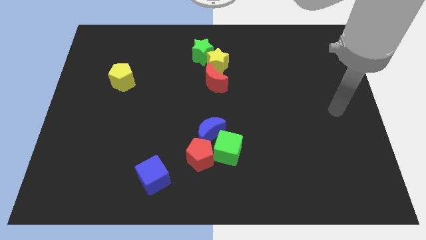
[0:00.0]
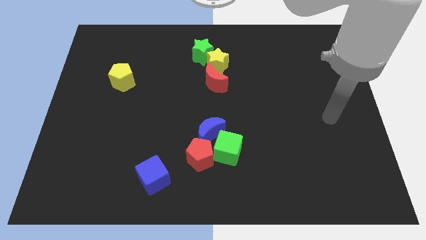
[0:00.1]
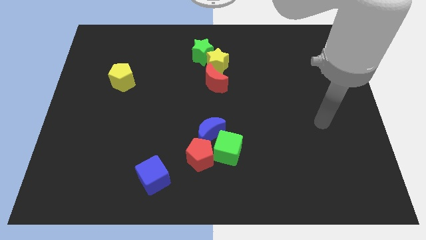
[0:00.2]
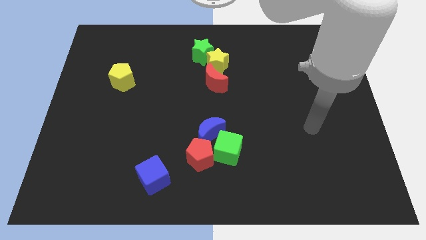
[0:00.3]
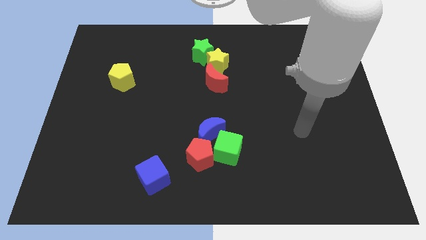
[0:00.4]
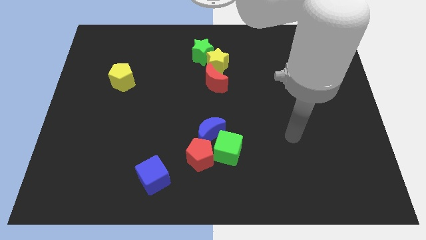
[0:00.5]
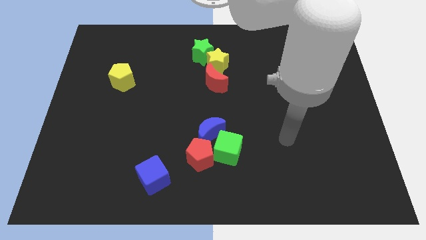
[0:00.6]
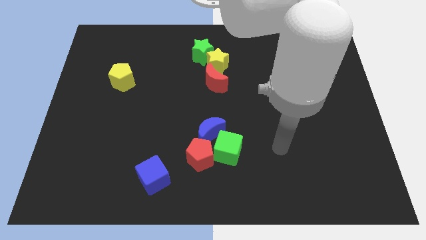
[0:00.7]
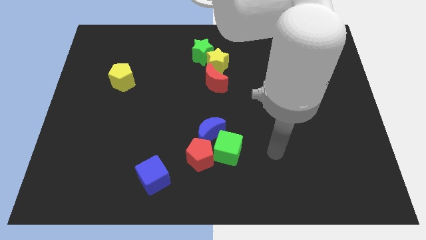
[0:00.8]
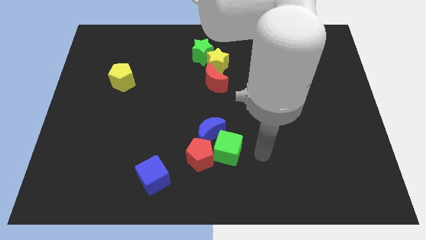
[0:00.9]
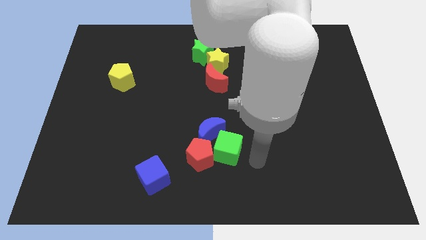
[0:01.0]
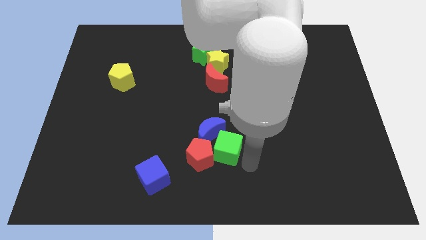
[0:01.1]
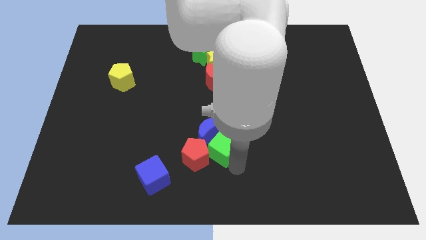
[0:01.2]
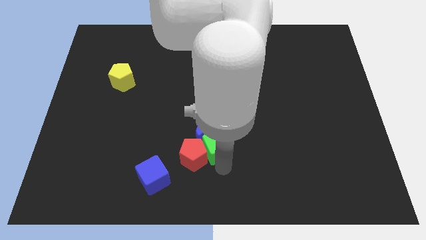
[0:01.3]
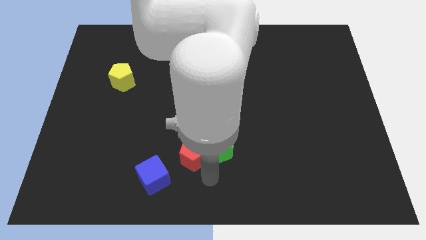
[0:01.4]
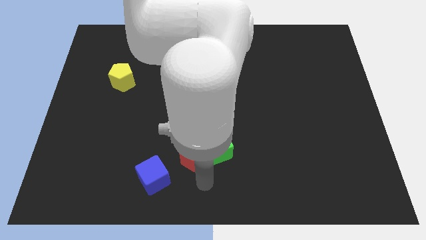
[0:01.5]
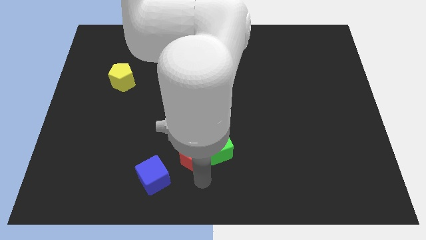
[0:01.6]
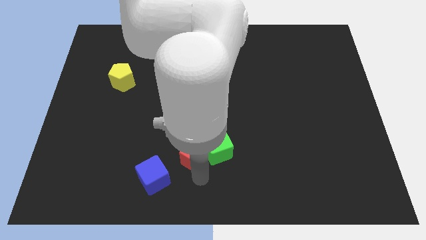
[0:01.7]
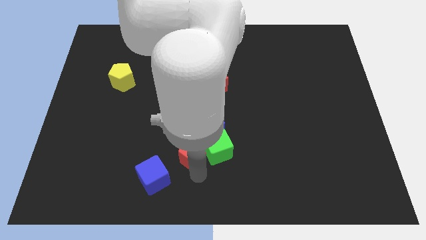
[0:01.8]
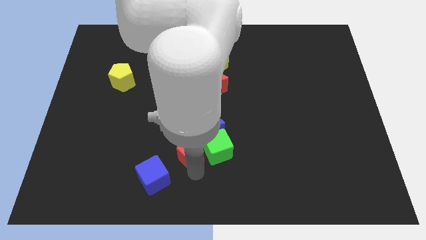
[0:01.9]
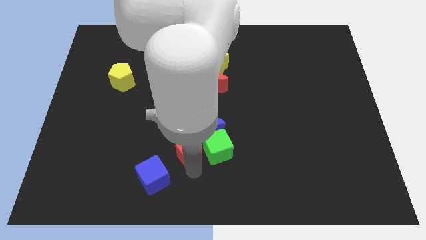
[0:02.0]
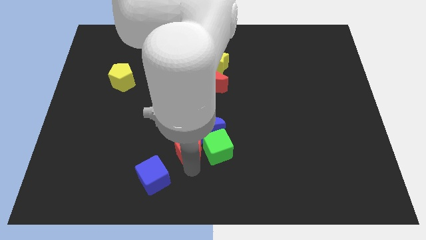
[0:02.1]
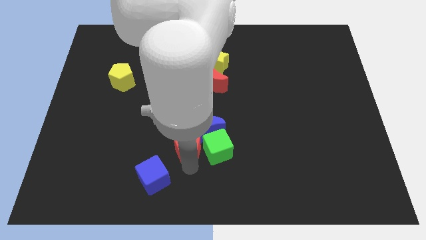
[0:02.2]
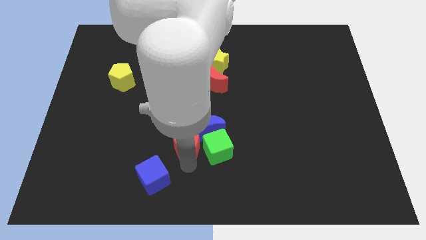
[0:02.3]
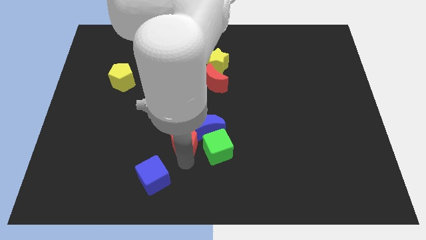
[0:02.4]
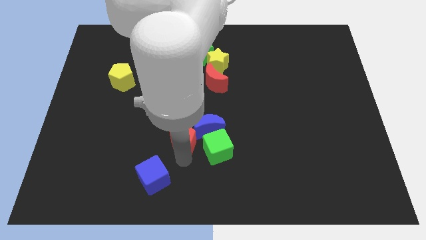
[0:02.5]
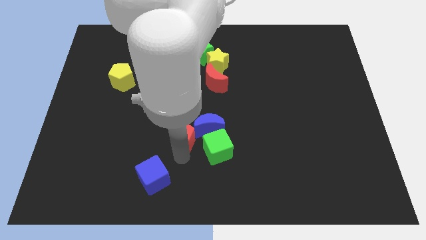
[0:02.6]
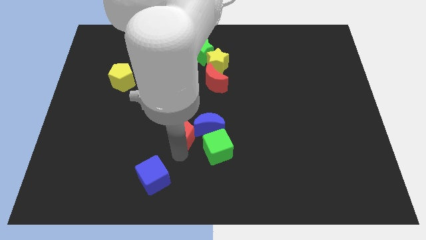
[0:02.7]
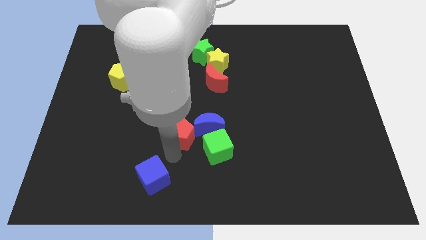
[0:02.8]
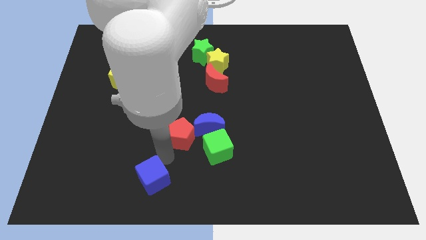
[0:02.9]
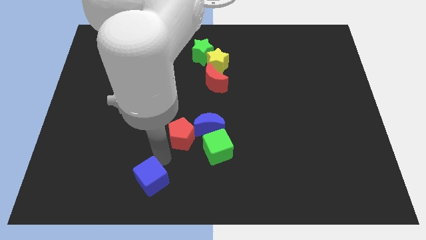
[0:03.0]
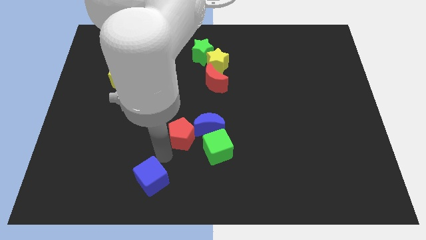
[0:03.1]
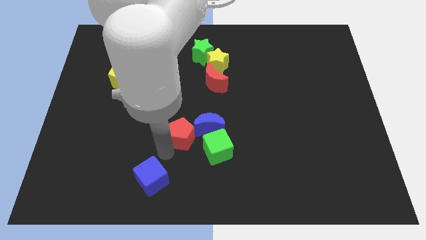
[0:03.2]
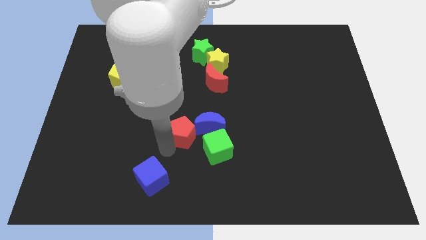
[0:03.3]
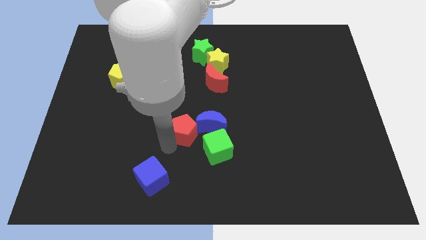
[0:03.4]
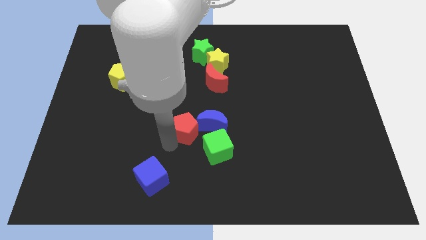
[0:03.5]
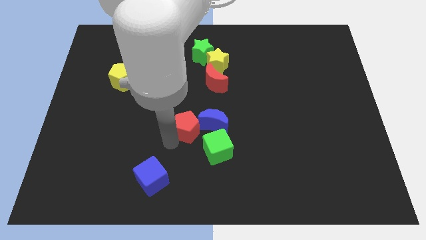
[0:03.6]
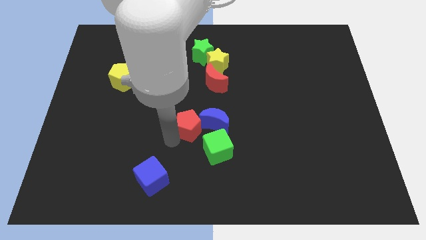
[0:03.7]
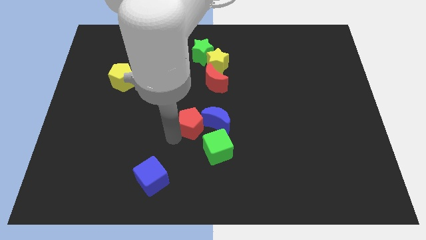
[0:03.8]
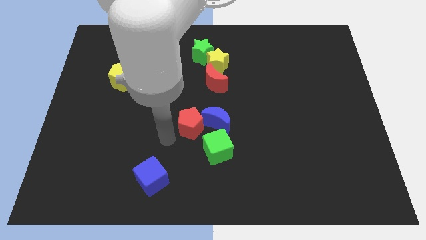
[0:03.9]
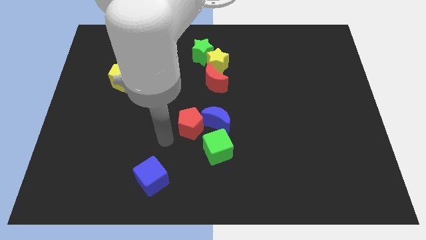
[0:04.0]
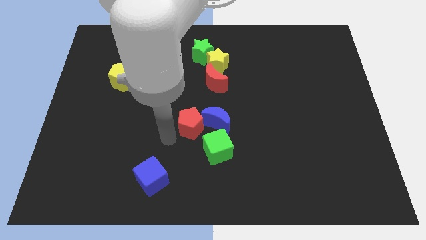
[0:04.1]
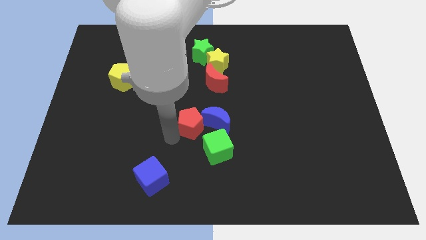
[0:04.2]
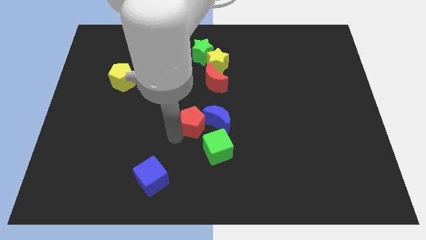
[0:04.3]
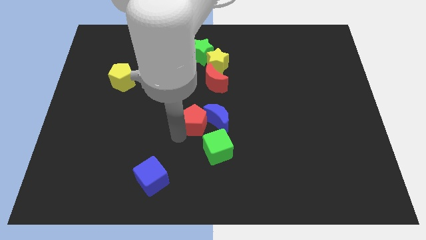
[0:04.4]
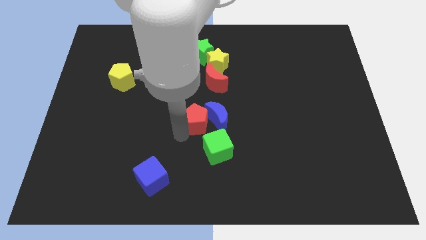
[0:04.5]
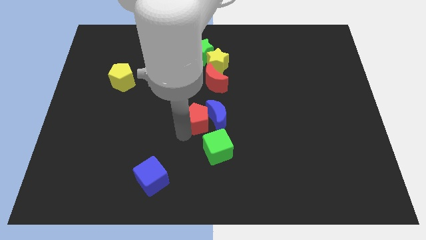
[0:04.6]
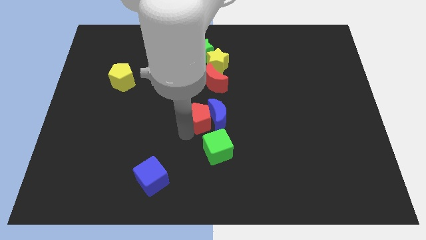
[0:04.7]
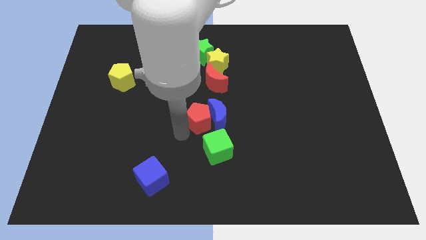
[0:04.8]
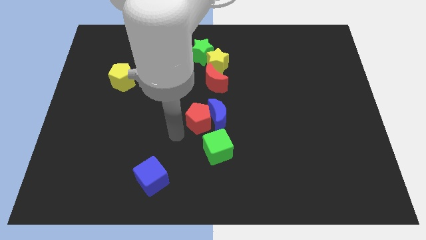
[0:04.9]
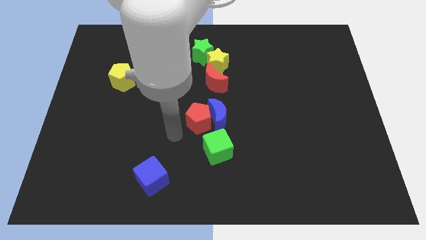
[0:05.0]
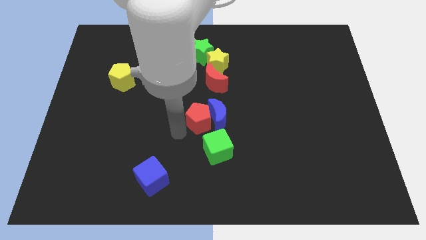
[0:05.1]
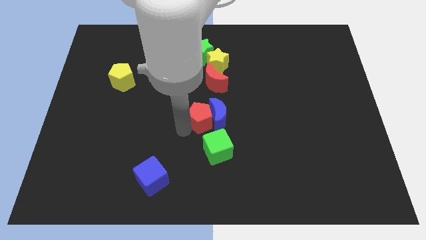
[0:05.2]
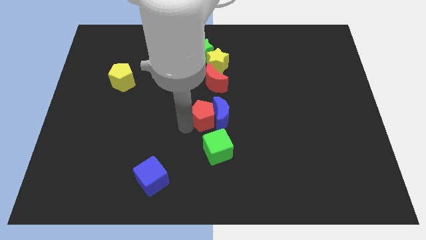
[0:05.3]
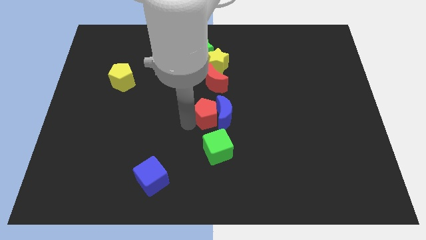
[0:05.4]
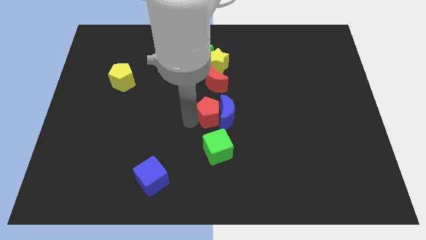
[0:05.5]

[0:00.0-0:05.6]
push the red pentagon somewhat up and right diagonally

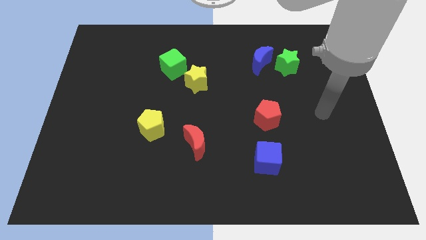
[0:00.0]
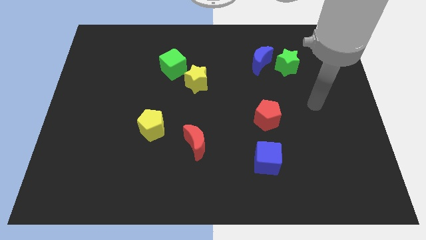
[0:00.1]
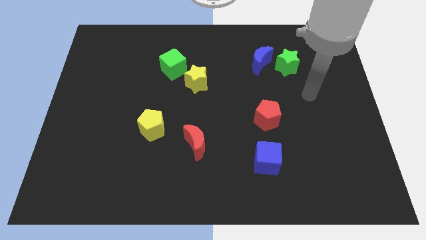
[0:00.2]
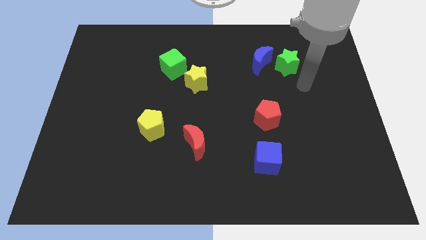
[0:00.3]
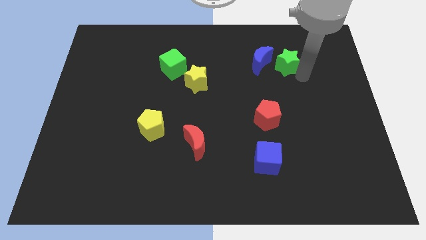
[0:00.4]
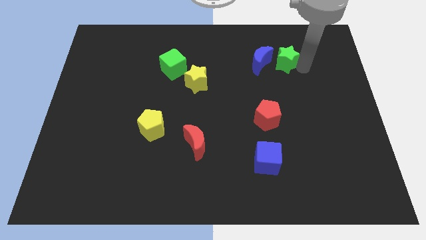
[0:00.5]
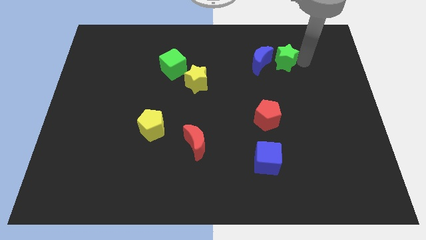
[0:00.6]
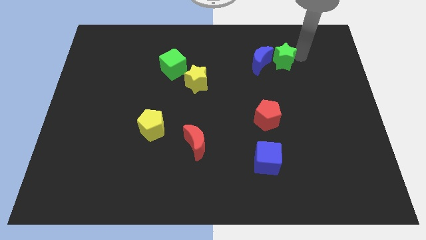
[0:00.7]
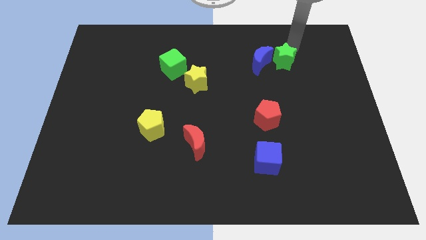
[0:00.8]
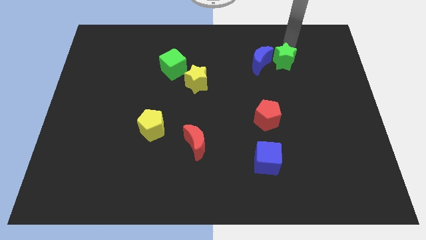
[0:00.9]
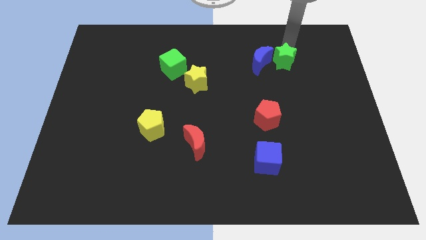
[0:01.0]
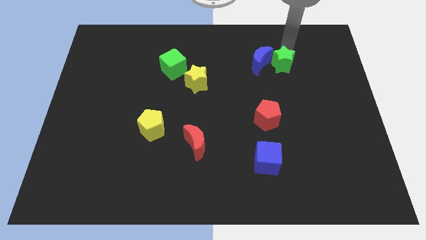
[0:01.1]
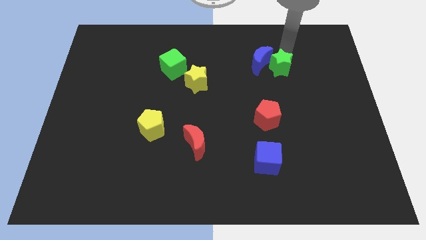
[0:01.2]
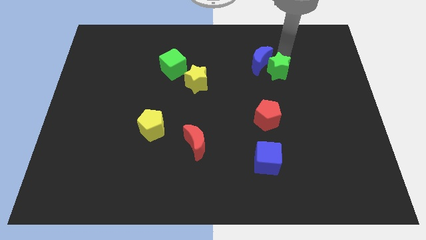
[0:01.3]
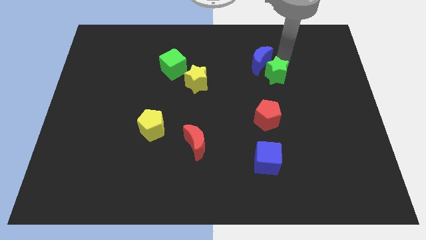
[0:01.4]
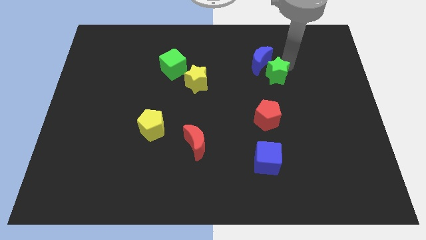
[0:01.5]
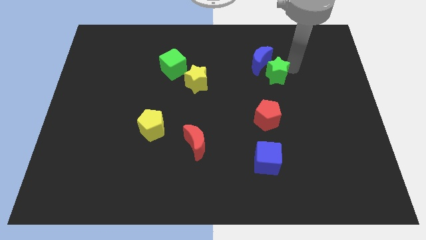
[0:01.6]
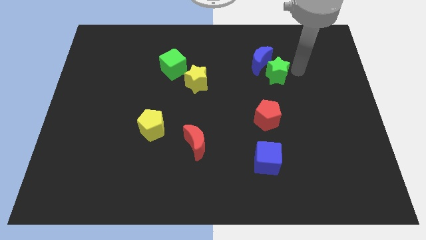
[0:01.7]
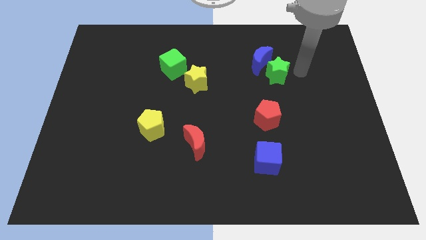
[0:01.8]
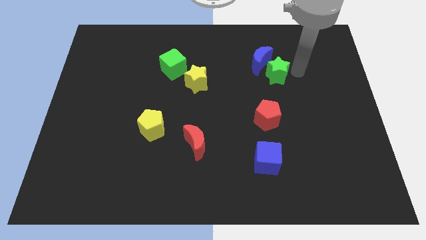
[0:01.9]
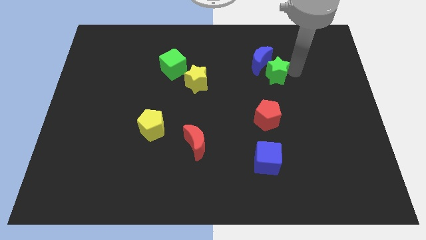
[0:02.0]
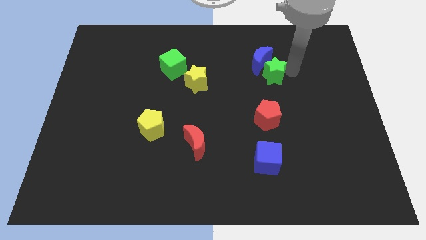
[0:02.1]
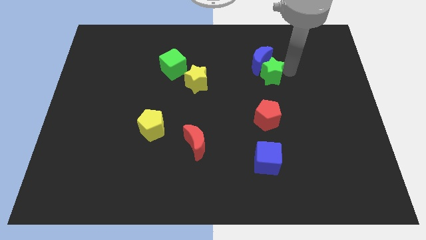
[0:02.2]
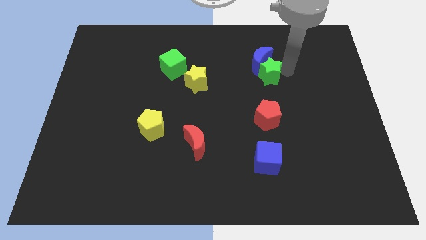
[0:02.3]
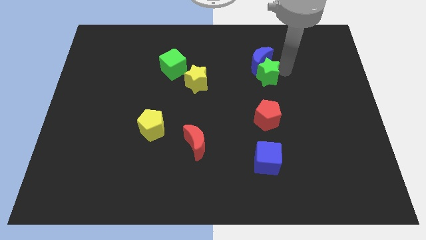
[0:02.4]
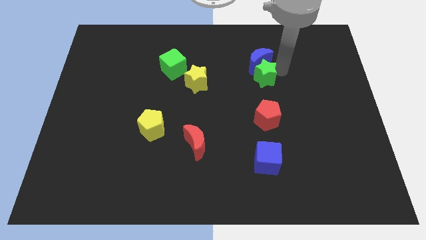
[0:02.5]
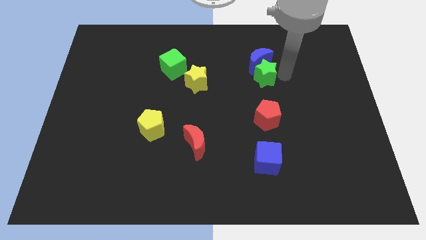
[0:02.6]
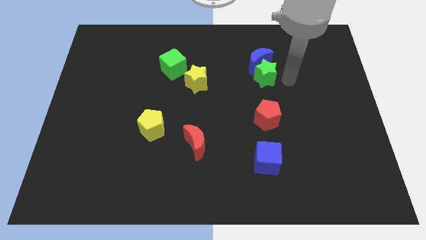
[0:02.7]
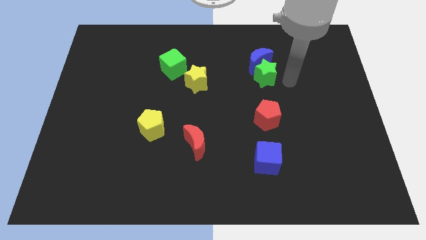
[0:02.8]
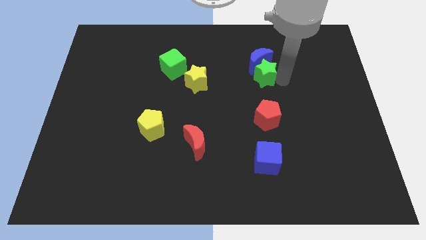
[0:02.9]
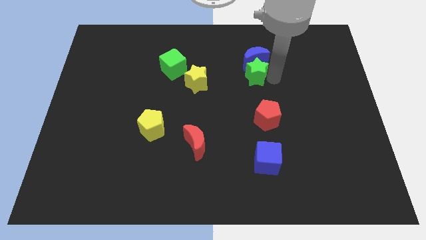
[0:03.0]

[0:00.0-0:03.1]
push the green star a bit to the left
